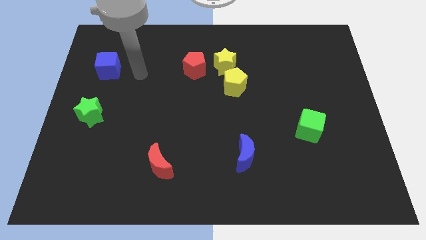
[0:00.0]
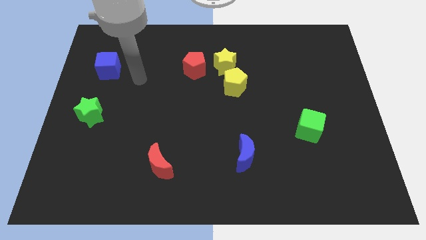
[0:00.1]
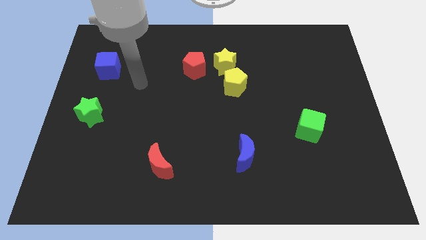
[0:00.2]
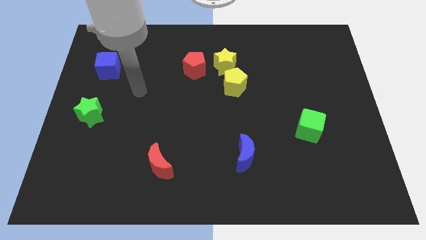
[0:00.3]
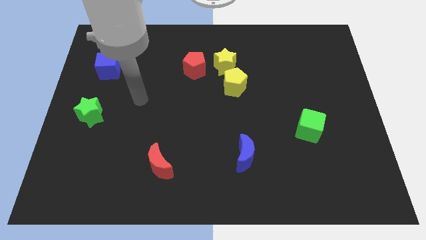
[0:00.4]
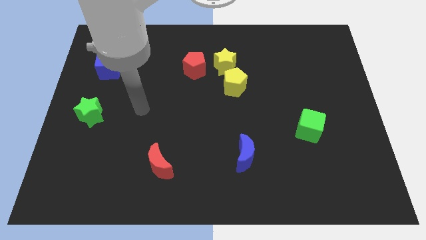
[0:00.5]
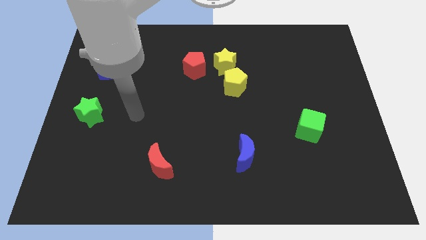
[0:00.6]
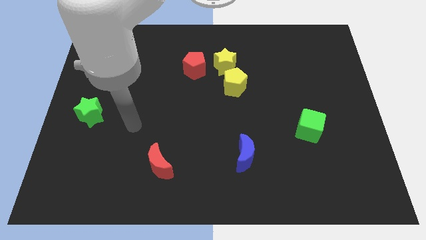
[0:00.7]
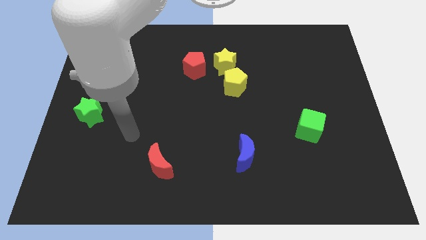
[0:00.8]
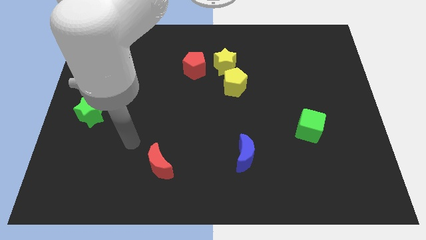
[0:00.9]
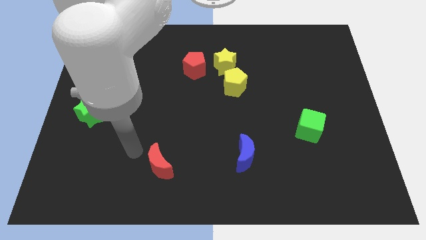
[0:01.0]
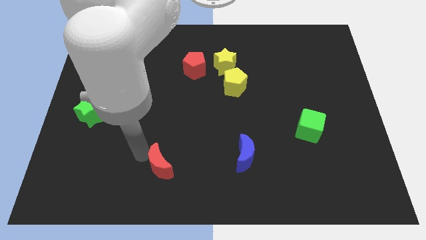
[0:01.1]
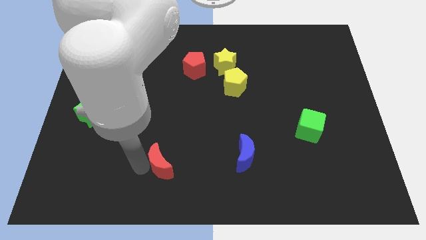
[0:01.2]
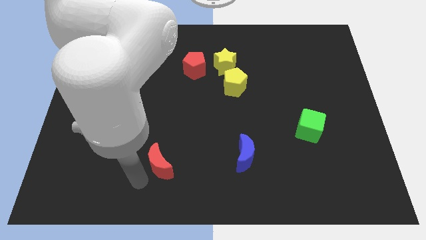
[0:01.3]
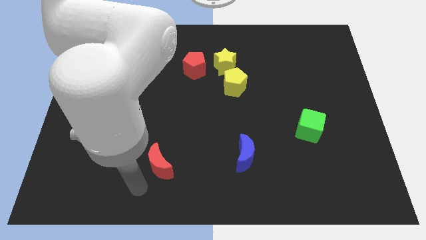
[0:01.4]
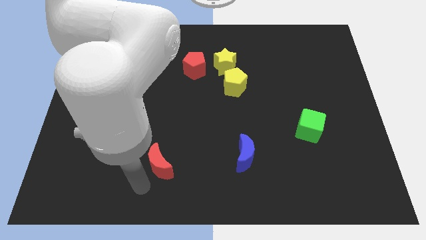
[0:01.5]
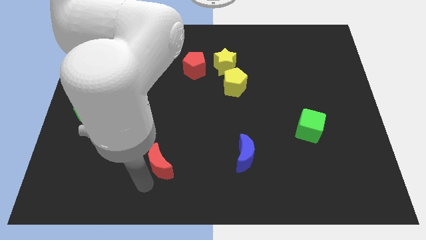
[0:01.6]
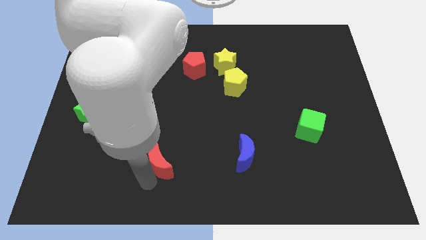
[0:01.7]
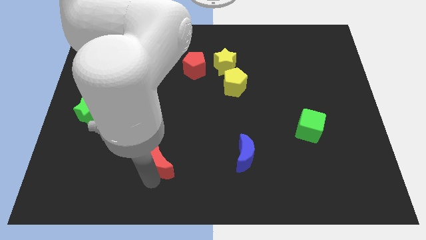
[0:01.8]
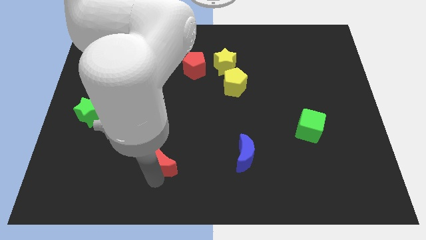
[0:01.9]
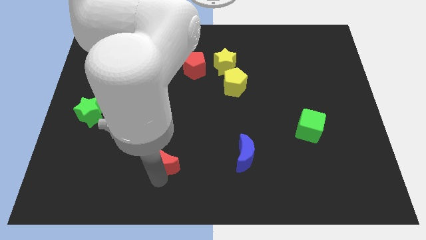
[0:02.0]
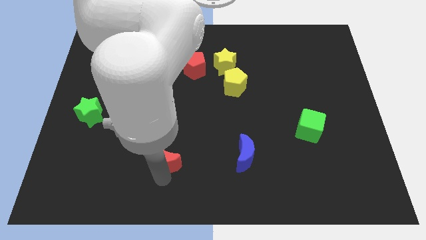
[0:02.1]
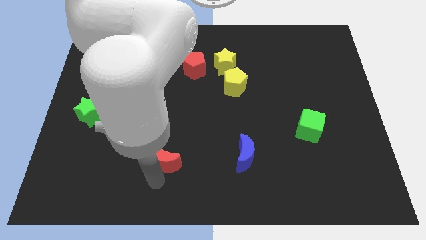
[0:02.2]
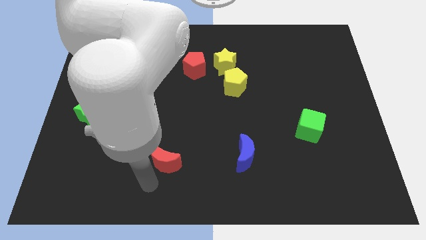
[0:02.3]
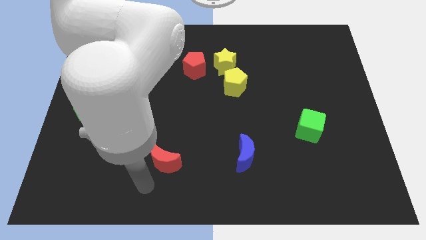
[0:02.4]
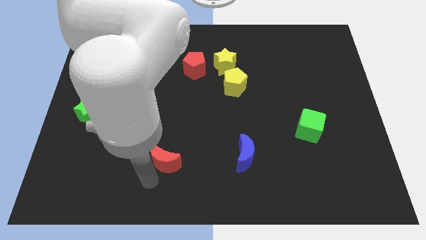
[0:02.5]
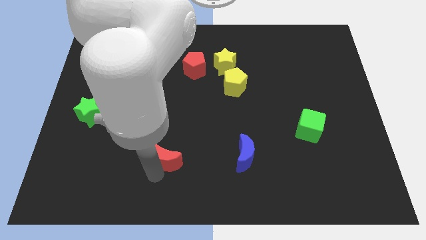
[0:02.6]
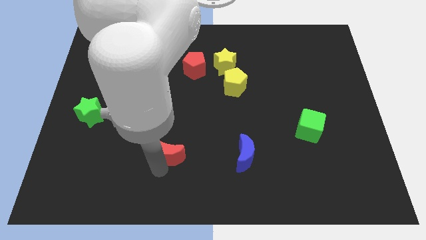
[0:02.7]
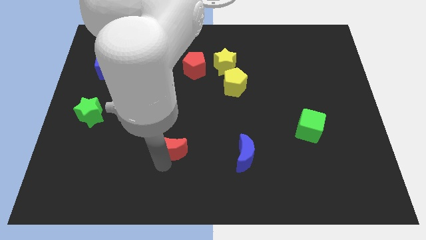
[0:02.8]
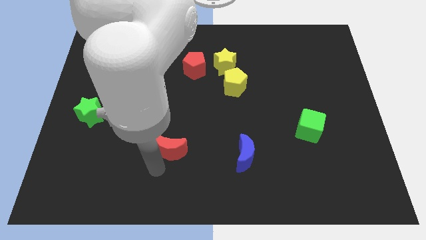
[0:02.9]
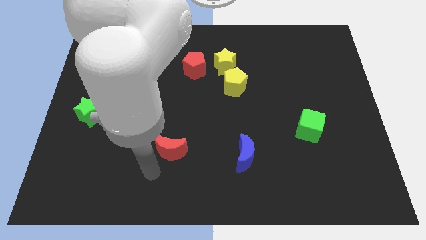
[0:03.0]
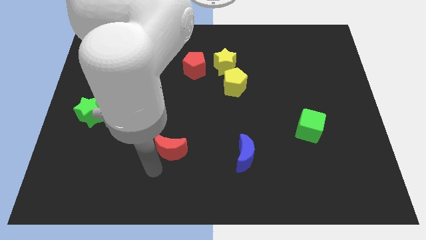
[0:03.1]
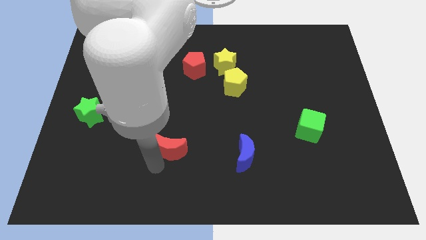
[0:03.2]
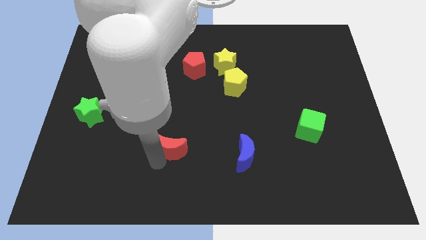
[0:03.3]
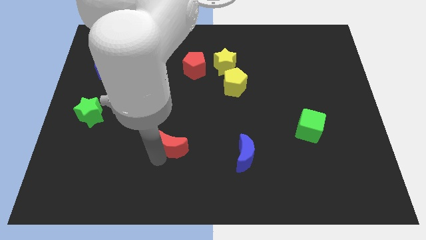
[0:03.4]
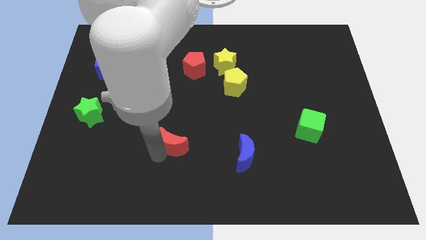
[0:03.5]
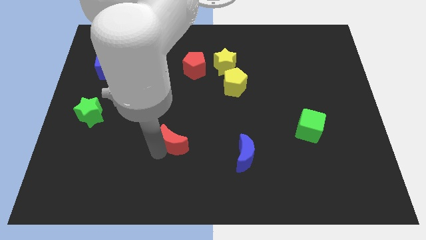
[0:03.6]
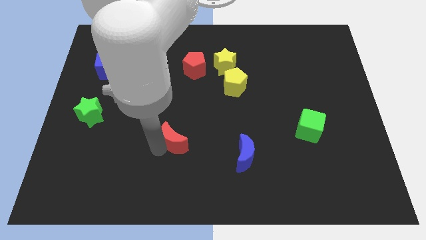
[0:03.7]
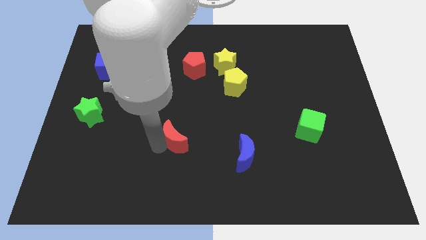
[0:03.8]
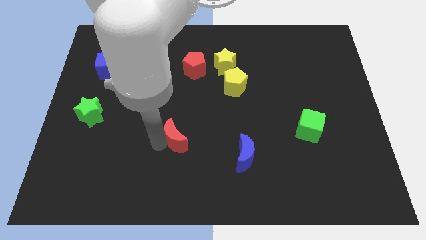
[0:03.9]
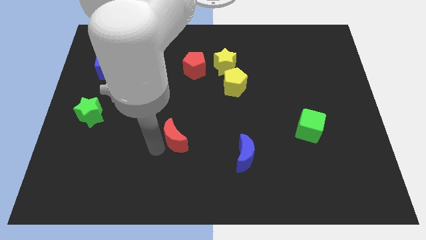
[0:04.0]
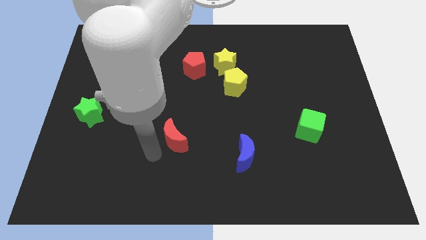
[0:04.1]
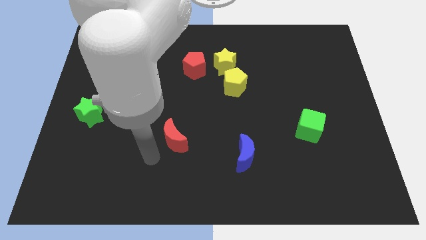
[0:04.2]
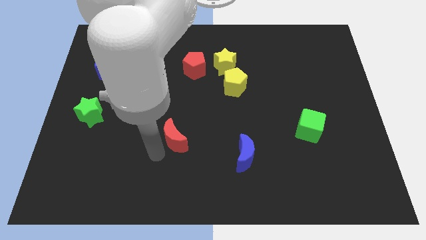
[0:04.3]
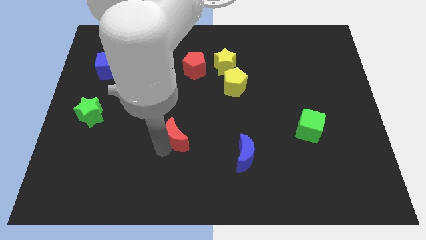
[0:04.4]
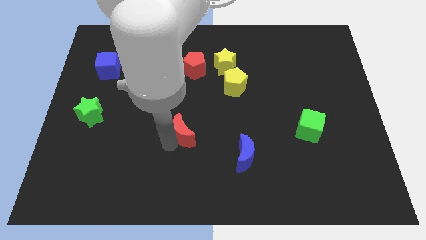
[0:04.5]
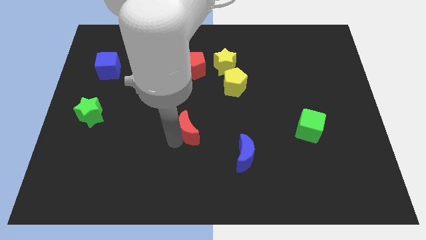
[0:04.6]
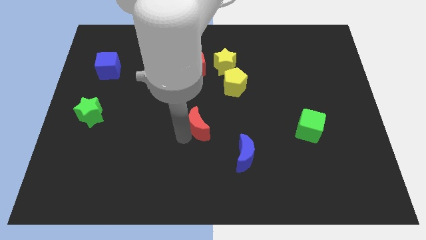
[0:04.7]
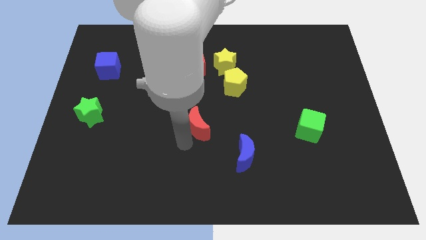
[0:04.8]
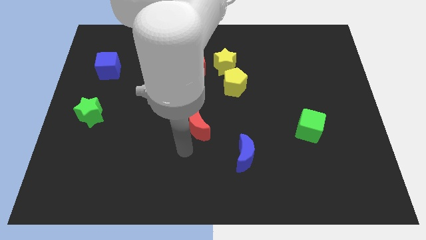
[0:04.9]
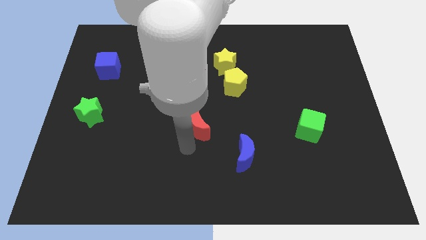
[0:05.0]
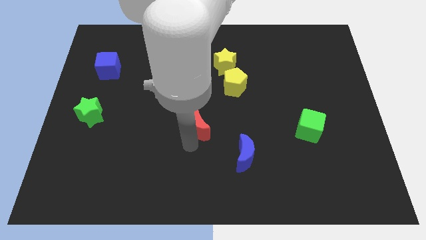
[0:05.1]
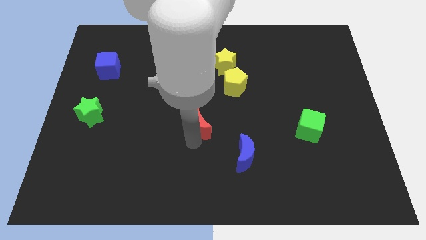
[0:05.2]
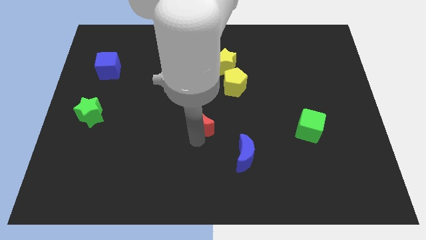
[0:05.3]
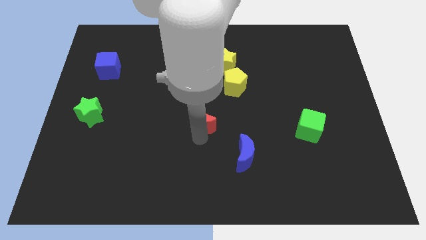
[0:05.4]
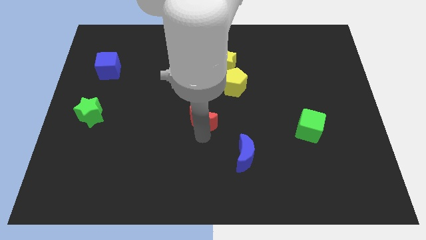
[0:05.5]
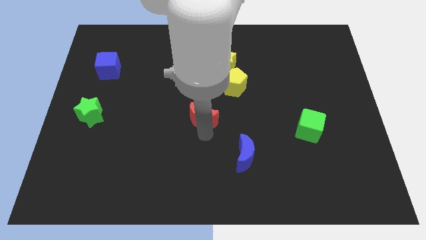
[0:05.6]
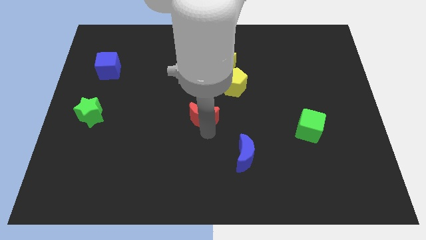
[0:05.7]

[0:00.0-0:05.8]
move the red moon to the bottom left of the yellow pentagon
